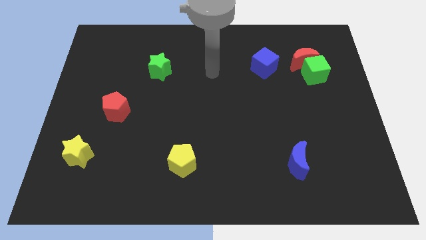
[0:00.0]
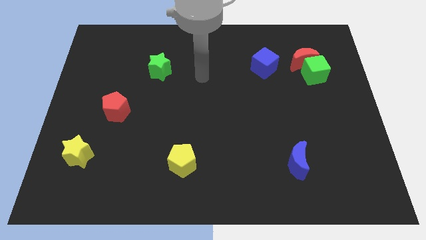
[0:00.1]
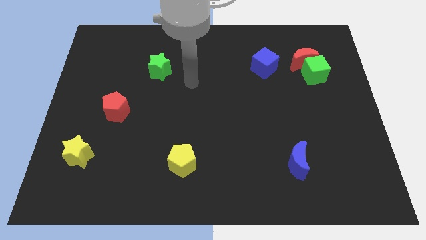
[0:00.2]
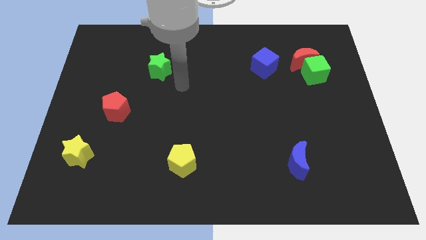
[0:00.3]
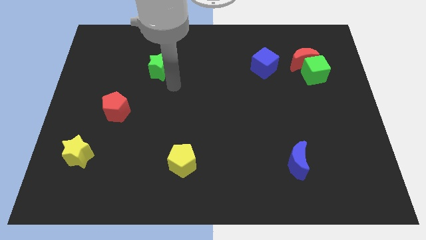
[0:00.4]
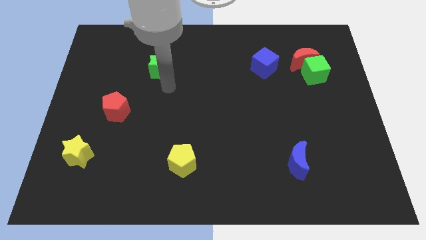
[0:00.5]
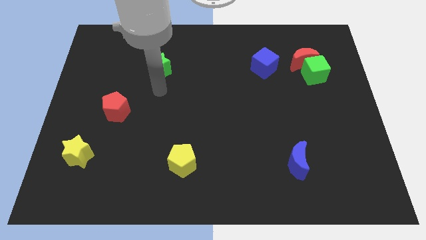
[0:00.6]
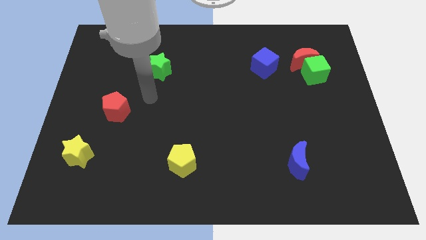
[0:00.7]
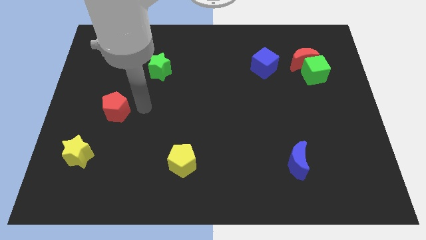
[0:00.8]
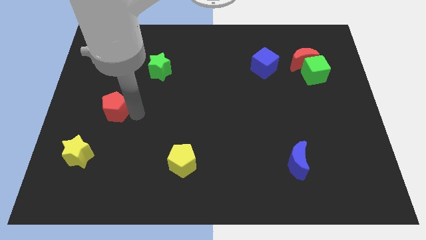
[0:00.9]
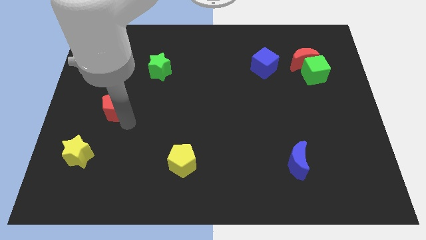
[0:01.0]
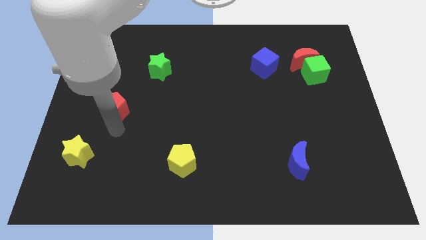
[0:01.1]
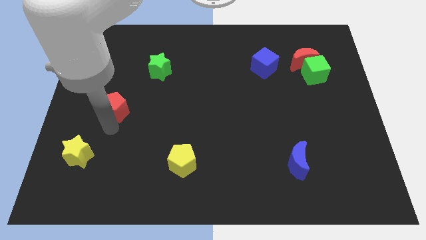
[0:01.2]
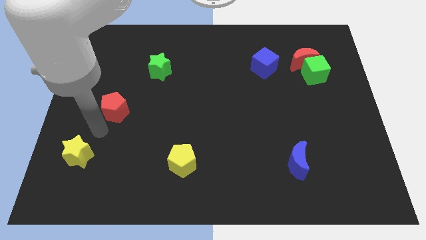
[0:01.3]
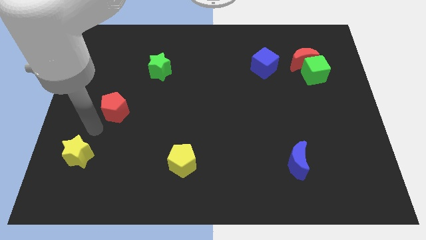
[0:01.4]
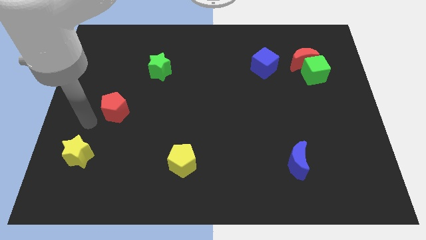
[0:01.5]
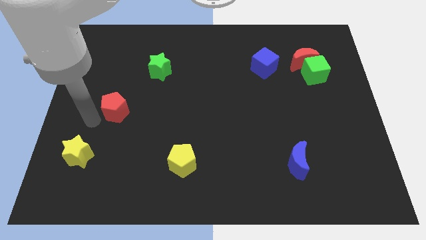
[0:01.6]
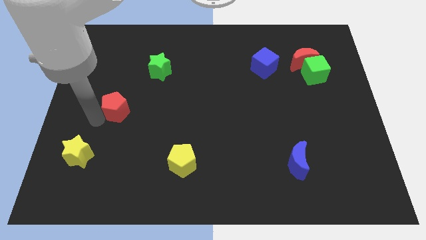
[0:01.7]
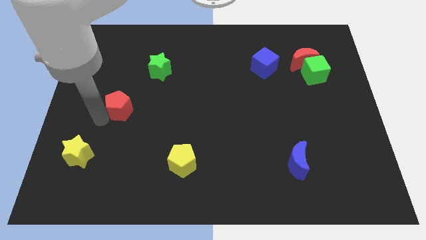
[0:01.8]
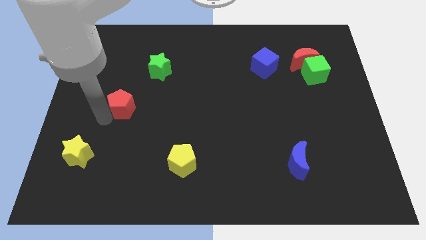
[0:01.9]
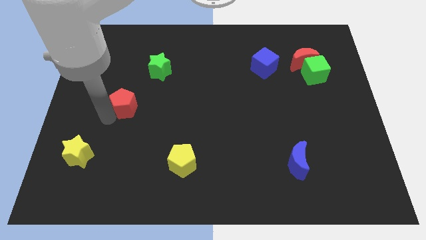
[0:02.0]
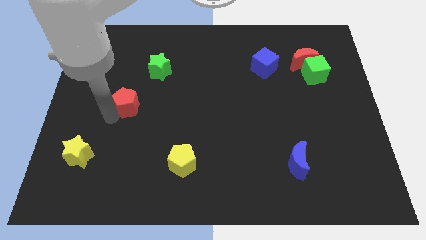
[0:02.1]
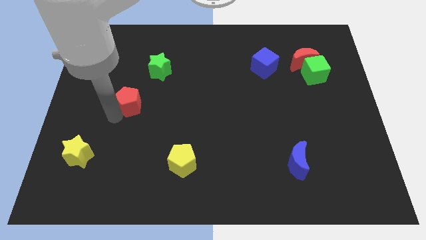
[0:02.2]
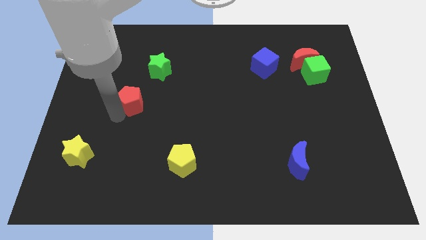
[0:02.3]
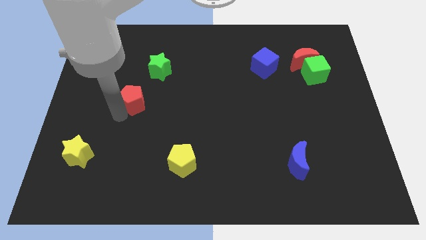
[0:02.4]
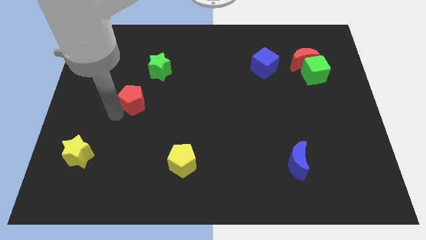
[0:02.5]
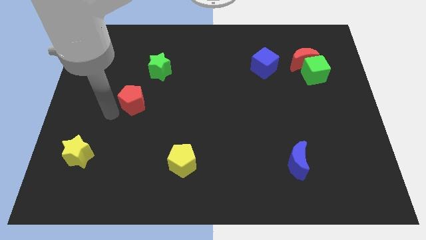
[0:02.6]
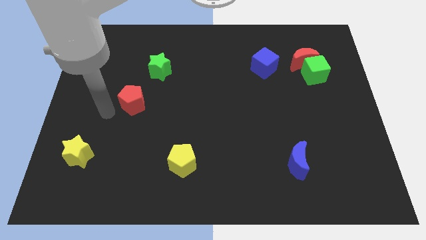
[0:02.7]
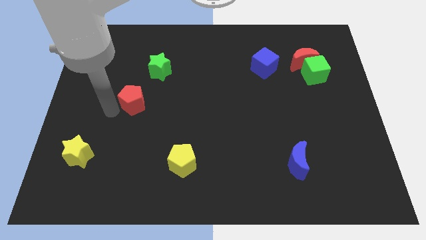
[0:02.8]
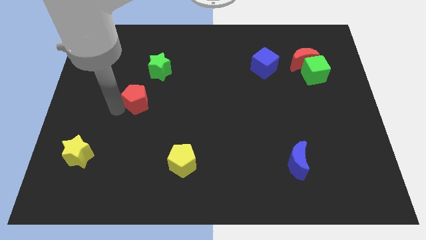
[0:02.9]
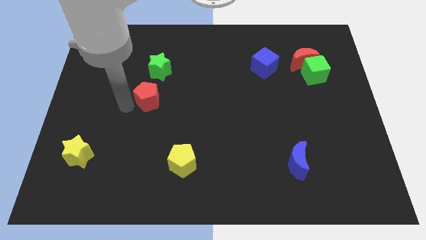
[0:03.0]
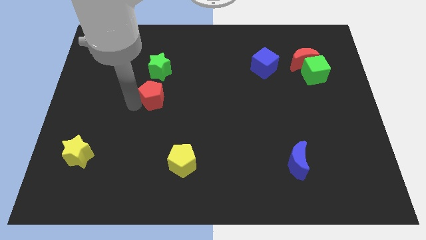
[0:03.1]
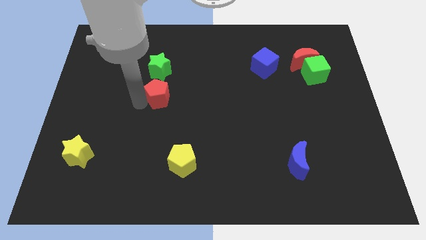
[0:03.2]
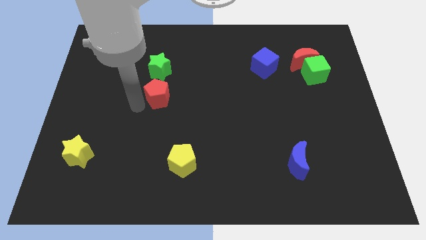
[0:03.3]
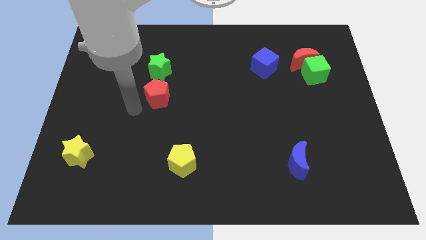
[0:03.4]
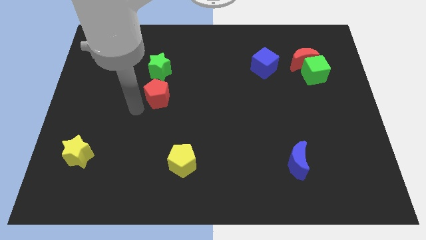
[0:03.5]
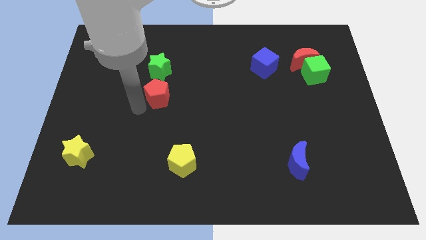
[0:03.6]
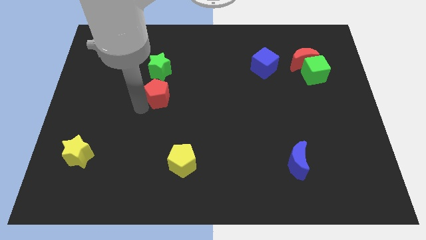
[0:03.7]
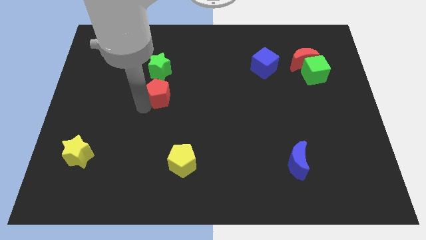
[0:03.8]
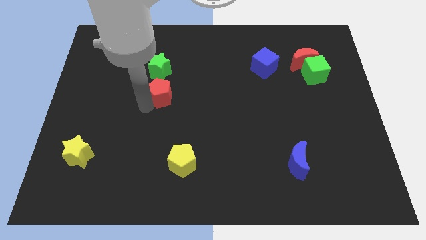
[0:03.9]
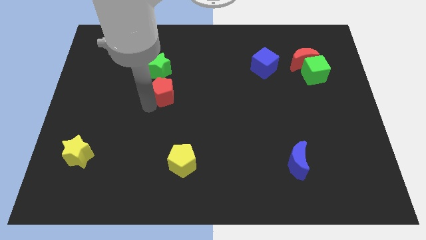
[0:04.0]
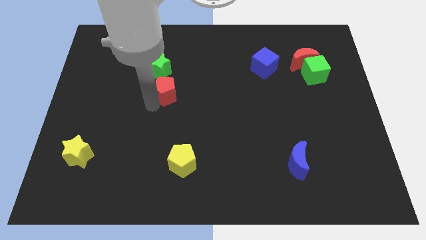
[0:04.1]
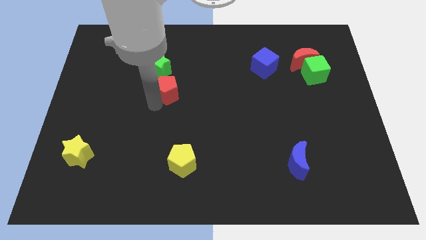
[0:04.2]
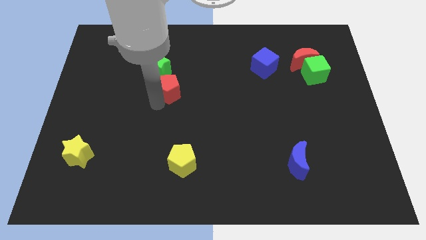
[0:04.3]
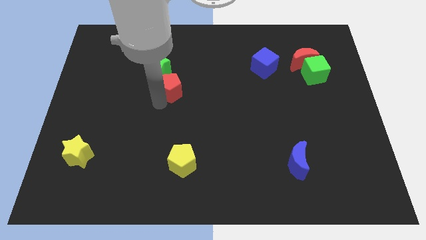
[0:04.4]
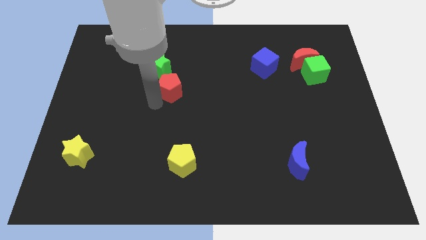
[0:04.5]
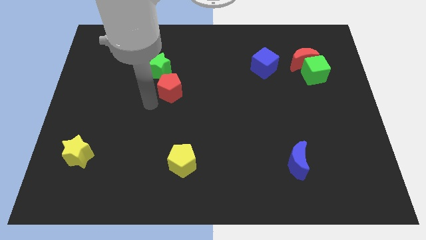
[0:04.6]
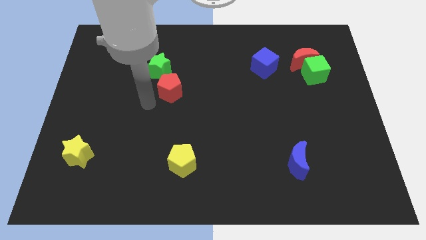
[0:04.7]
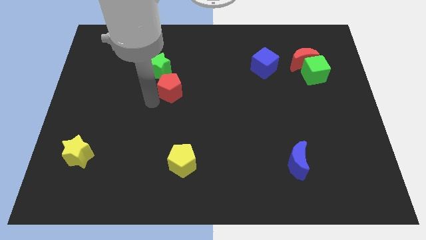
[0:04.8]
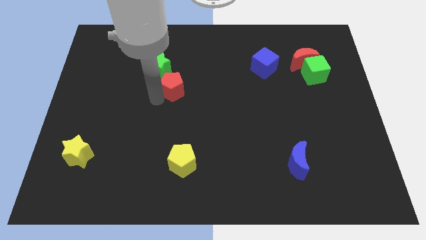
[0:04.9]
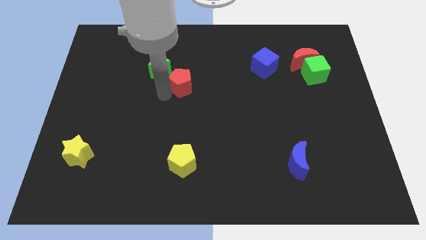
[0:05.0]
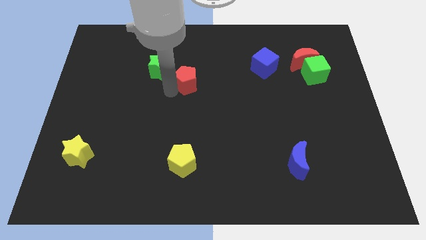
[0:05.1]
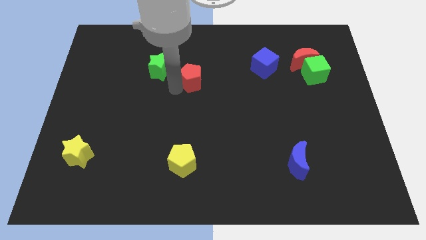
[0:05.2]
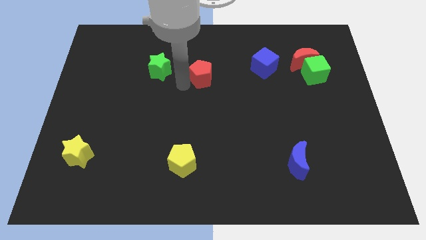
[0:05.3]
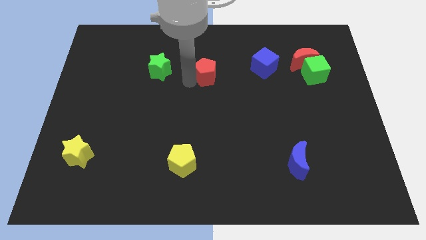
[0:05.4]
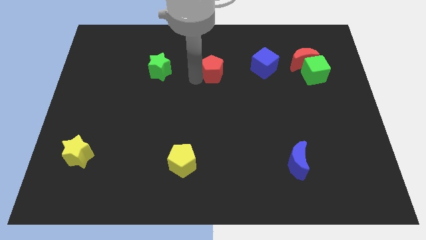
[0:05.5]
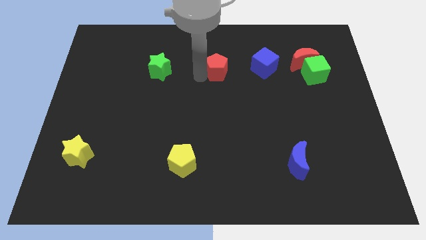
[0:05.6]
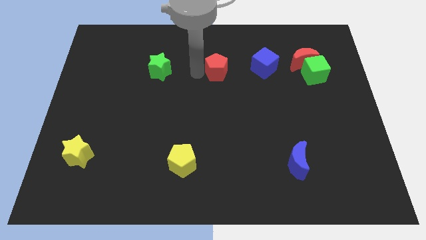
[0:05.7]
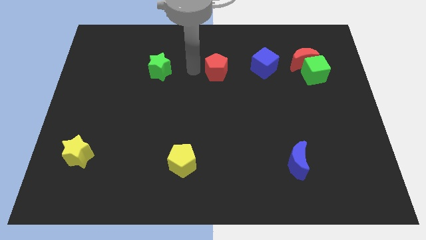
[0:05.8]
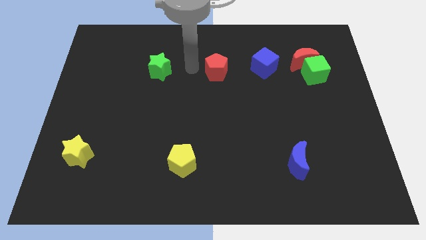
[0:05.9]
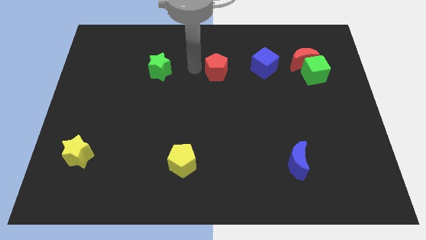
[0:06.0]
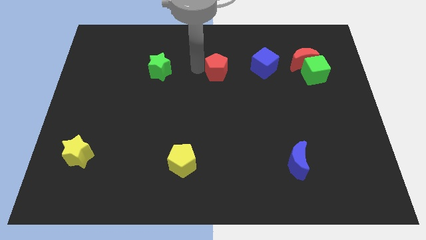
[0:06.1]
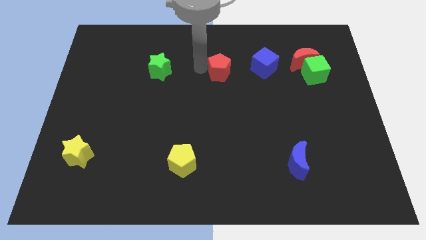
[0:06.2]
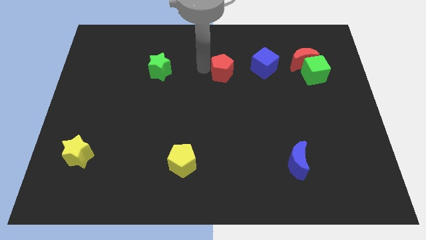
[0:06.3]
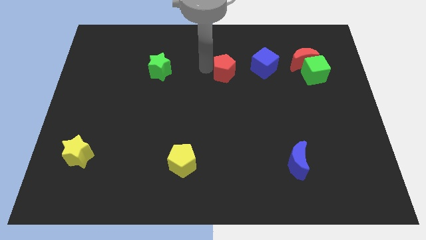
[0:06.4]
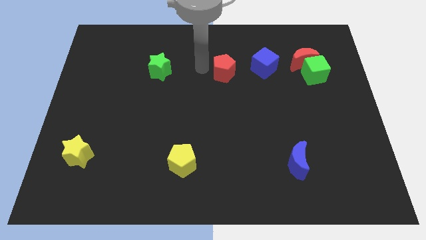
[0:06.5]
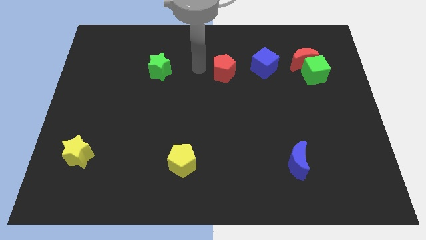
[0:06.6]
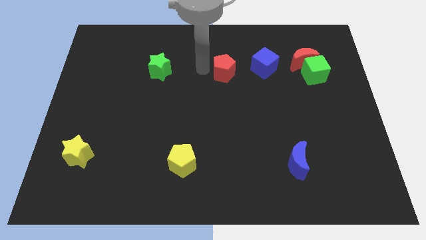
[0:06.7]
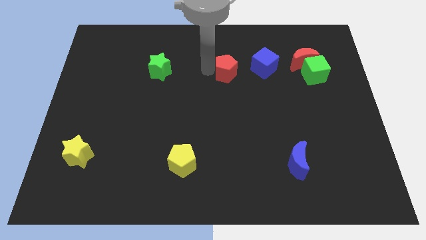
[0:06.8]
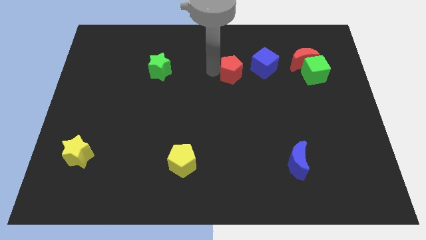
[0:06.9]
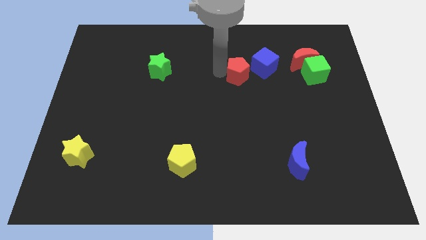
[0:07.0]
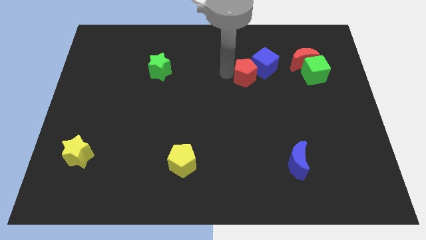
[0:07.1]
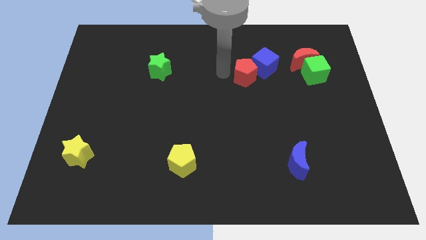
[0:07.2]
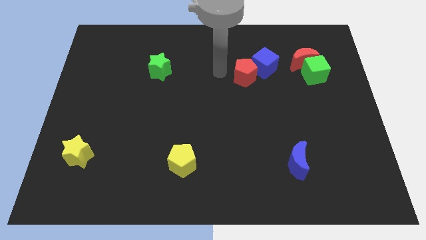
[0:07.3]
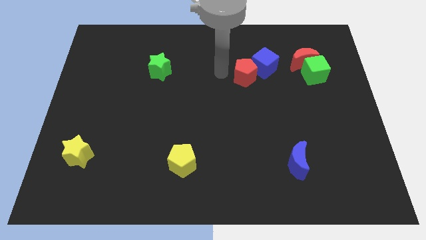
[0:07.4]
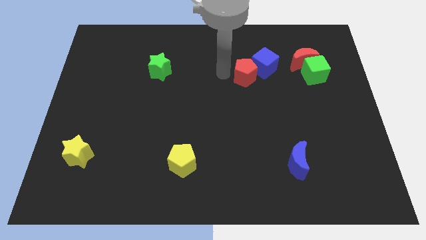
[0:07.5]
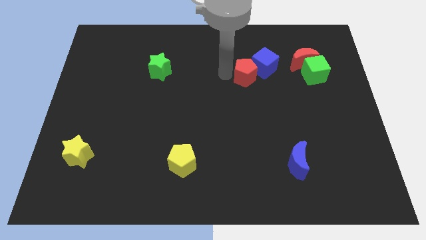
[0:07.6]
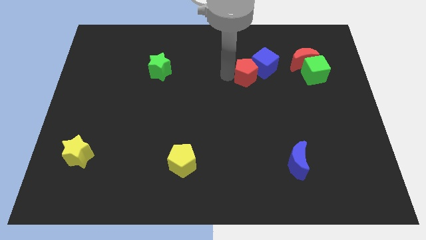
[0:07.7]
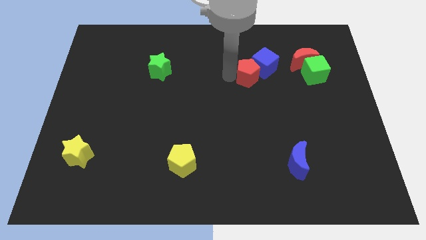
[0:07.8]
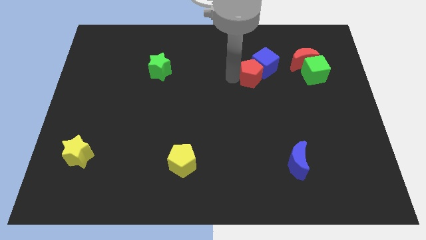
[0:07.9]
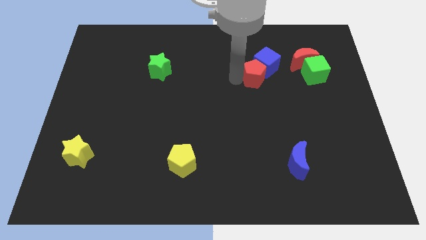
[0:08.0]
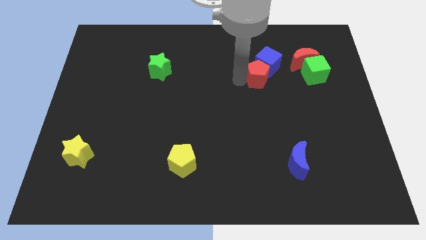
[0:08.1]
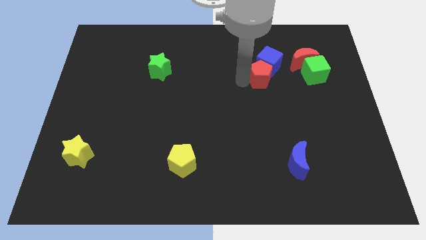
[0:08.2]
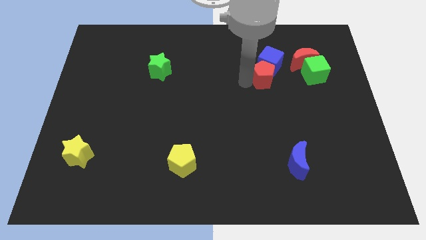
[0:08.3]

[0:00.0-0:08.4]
push the red pentagon diagonally down and to the left of the red moon
